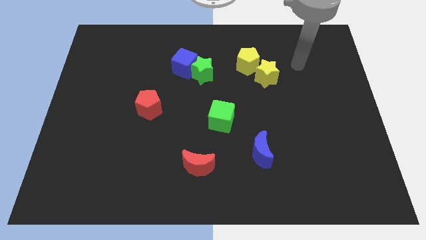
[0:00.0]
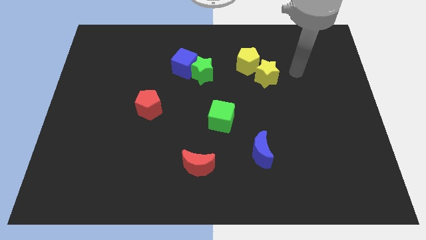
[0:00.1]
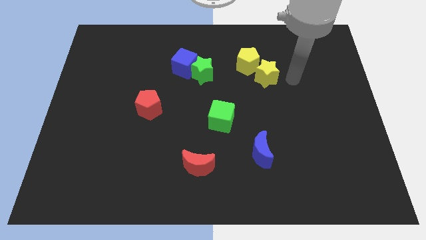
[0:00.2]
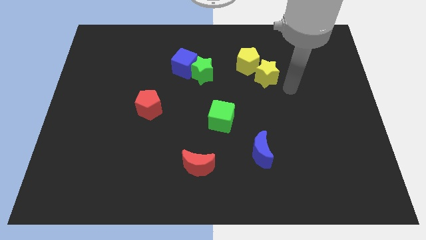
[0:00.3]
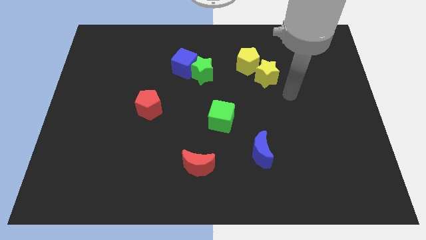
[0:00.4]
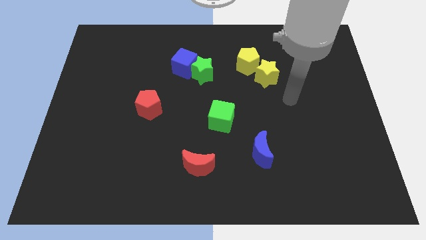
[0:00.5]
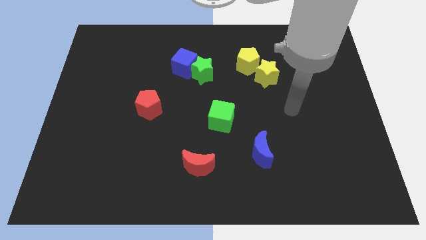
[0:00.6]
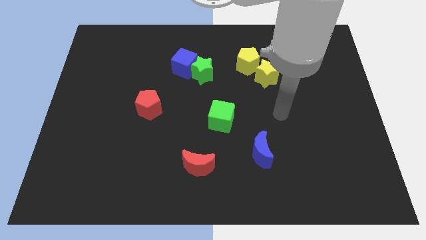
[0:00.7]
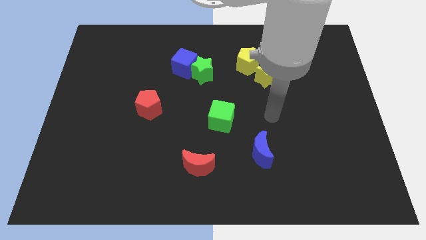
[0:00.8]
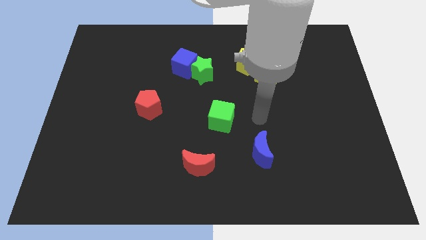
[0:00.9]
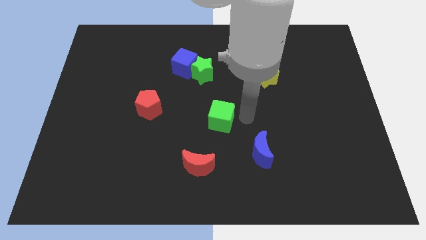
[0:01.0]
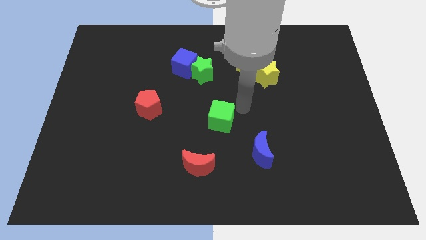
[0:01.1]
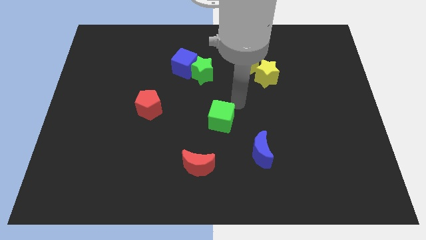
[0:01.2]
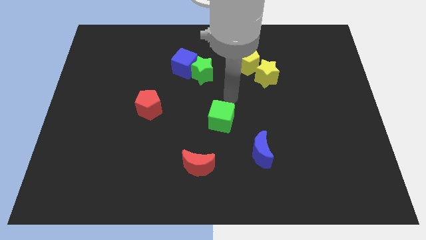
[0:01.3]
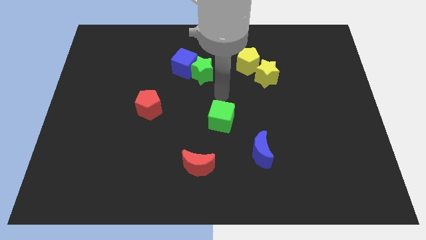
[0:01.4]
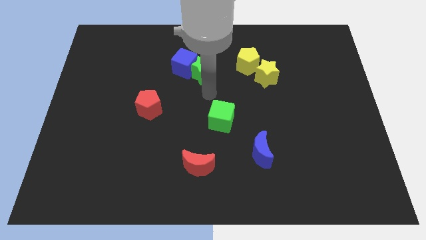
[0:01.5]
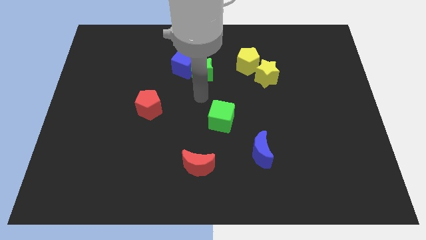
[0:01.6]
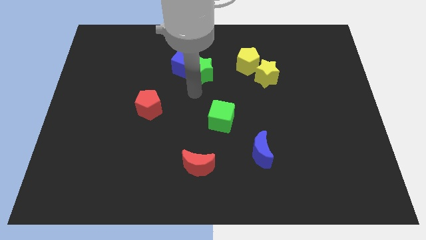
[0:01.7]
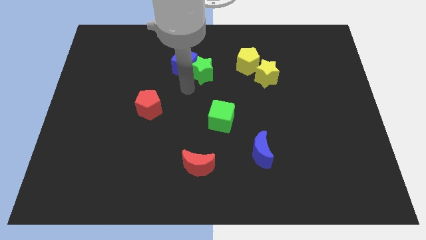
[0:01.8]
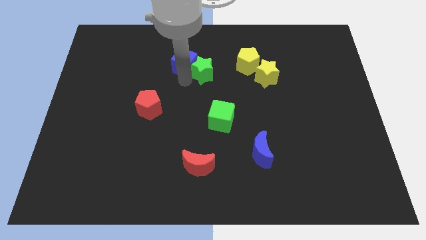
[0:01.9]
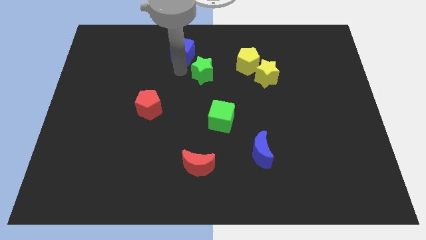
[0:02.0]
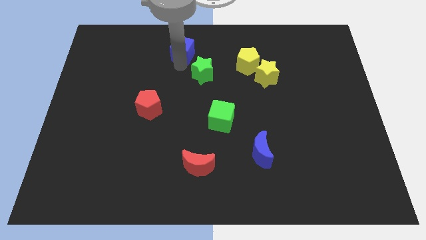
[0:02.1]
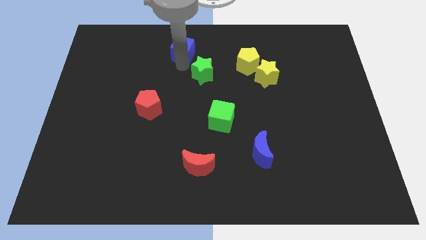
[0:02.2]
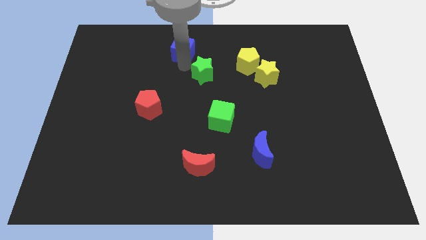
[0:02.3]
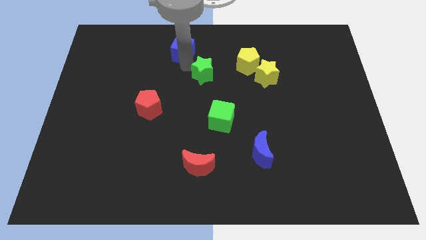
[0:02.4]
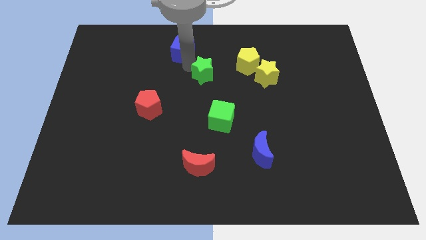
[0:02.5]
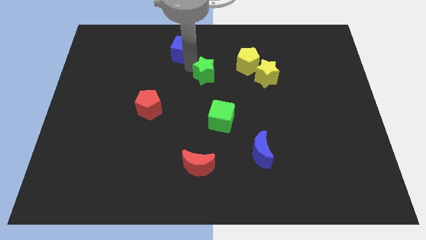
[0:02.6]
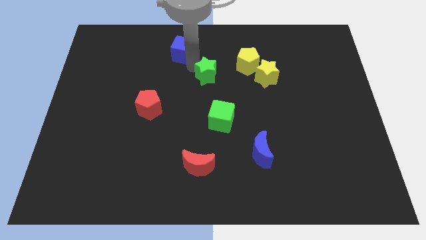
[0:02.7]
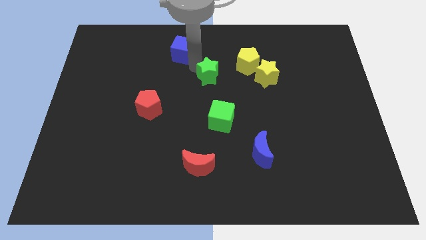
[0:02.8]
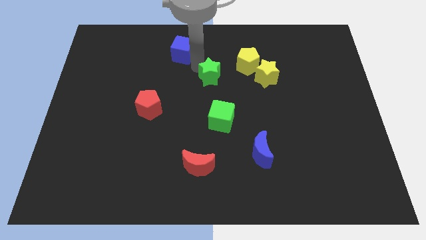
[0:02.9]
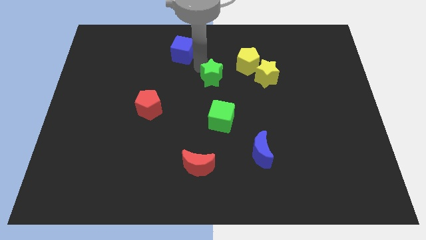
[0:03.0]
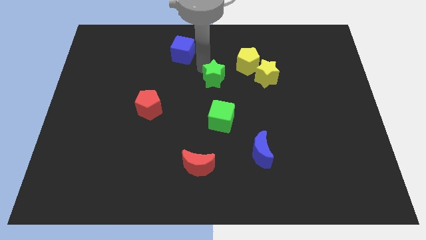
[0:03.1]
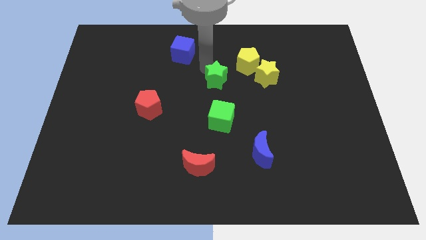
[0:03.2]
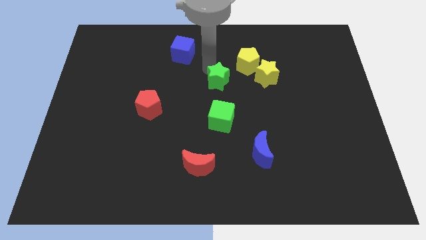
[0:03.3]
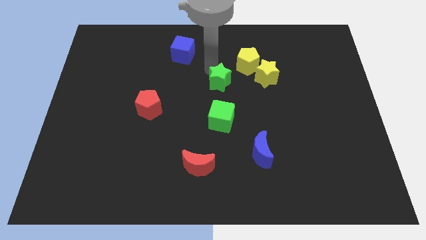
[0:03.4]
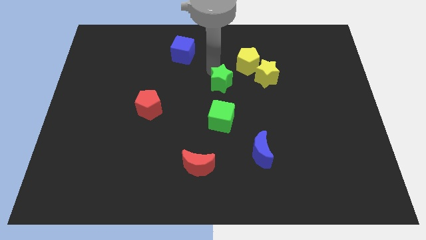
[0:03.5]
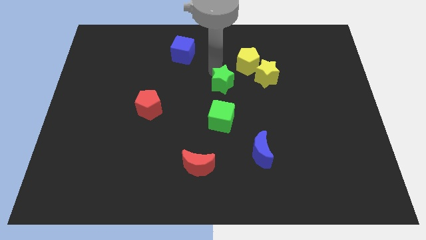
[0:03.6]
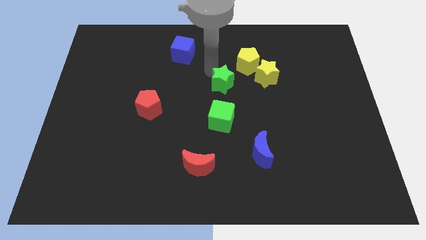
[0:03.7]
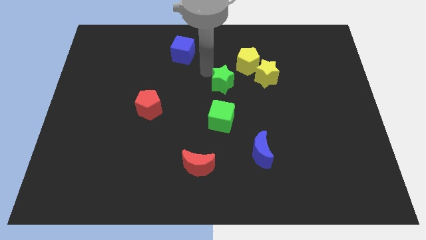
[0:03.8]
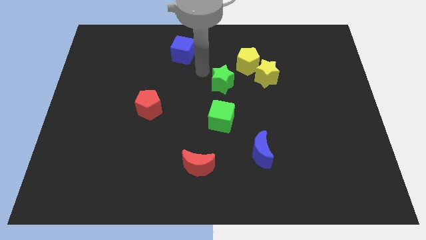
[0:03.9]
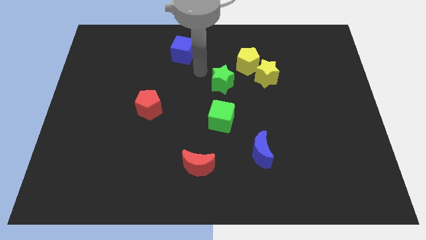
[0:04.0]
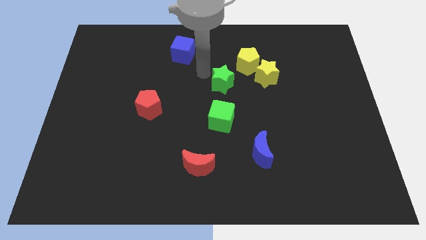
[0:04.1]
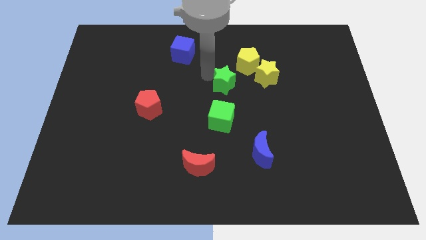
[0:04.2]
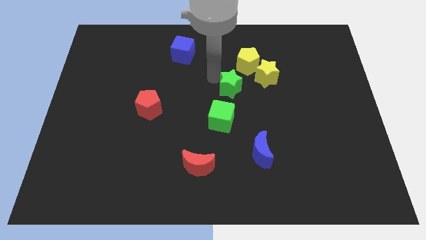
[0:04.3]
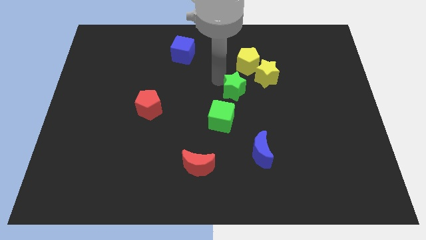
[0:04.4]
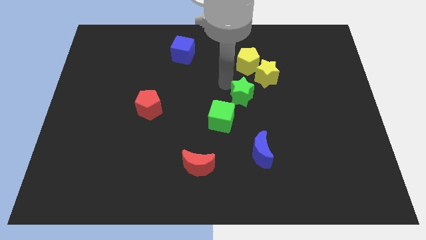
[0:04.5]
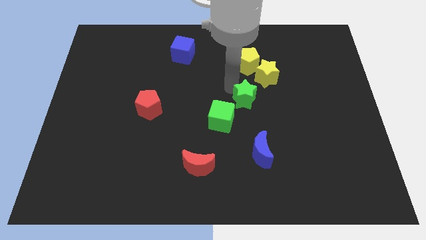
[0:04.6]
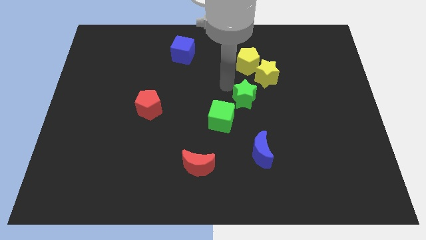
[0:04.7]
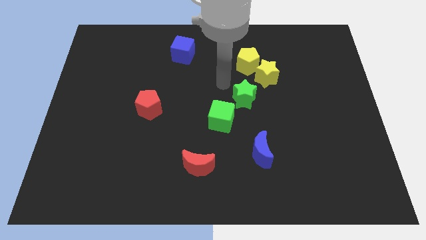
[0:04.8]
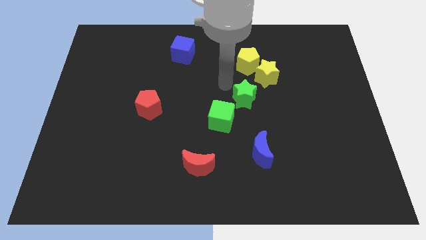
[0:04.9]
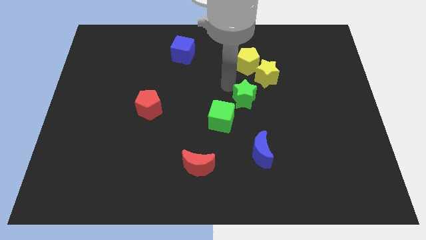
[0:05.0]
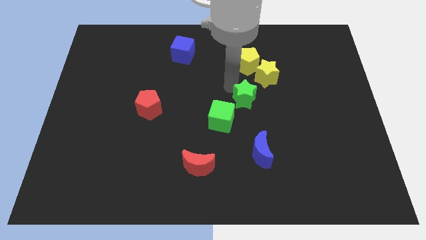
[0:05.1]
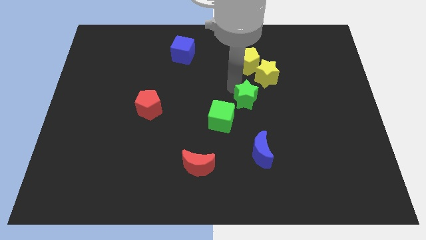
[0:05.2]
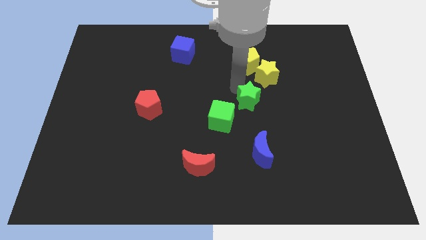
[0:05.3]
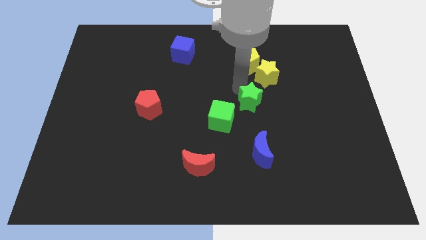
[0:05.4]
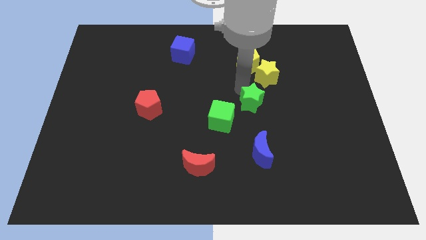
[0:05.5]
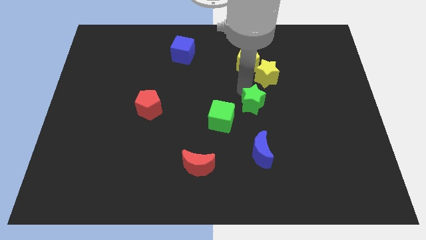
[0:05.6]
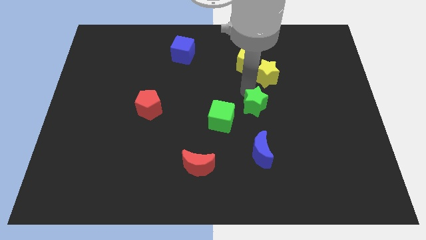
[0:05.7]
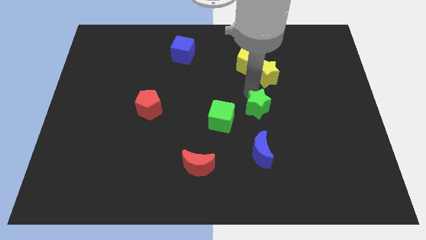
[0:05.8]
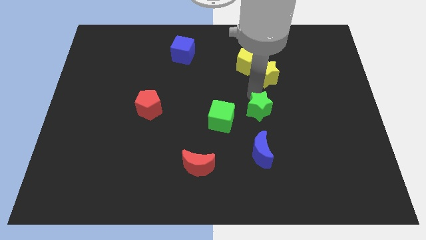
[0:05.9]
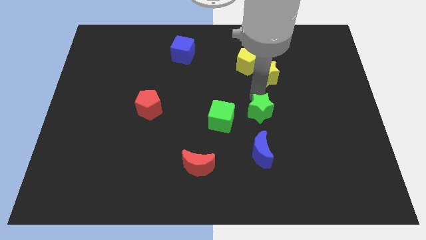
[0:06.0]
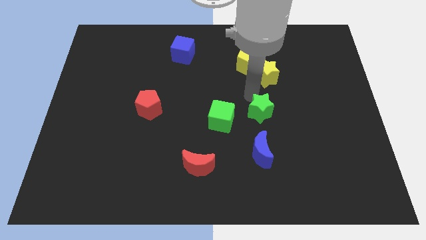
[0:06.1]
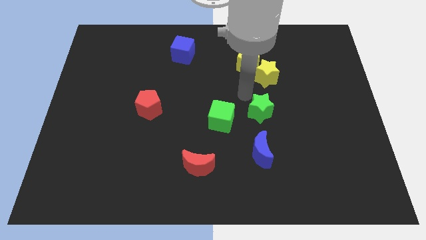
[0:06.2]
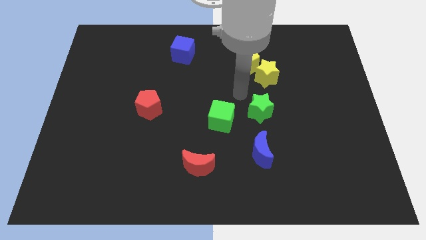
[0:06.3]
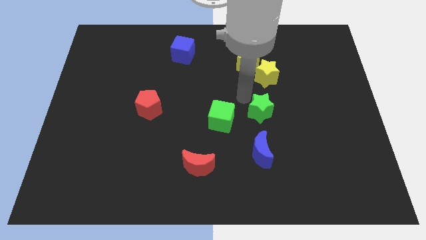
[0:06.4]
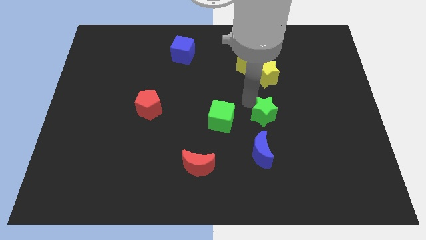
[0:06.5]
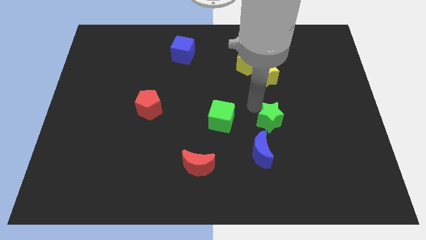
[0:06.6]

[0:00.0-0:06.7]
move the green star diagonally downwards and right

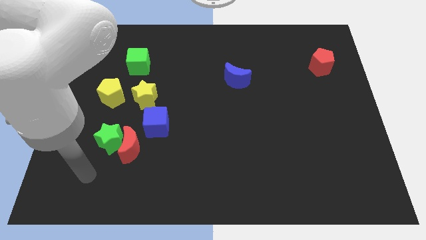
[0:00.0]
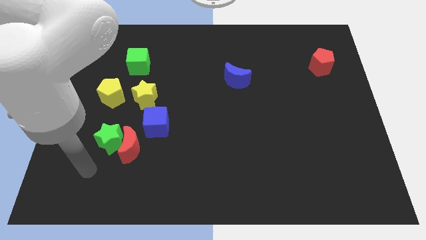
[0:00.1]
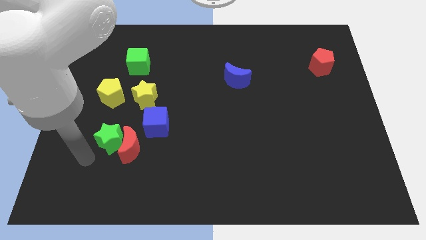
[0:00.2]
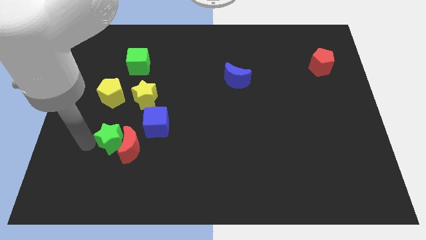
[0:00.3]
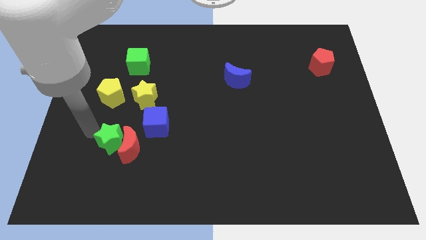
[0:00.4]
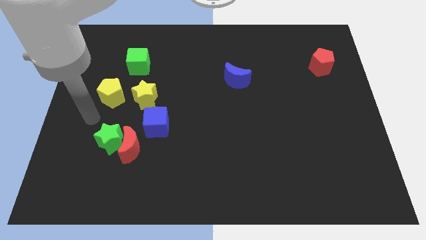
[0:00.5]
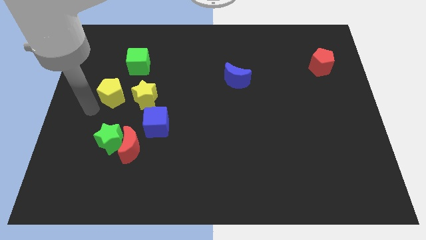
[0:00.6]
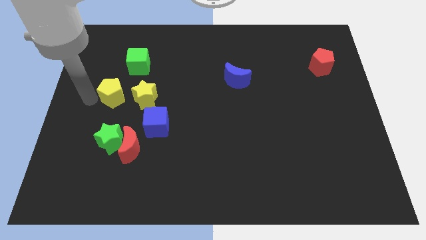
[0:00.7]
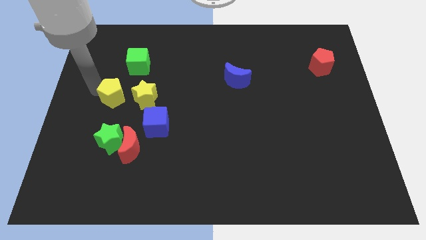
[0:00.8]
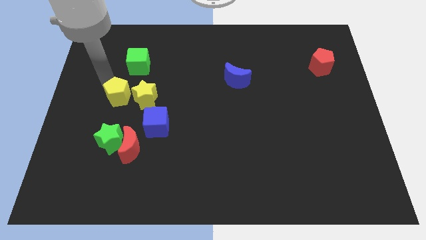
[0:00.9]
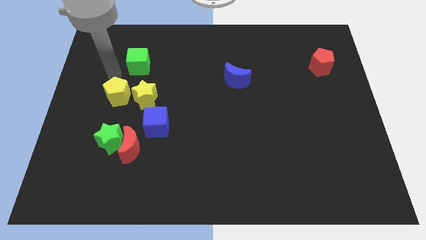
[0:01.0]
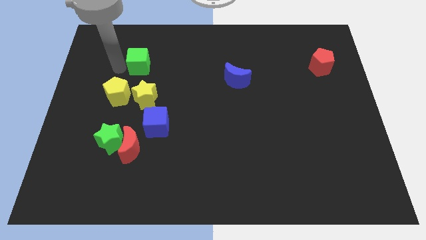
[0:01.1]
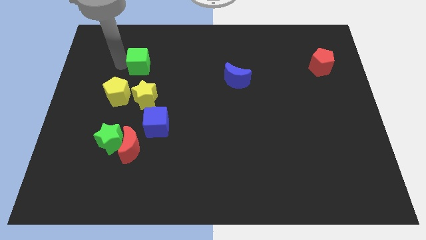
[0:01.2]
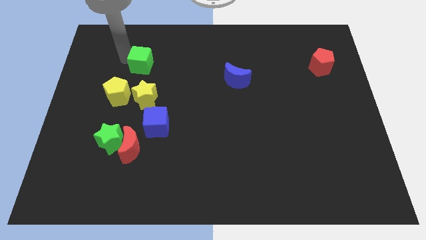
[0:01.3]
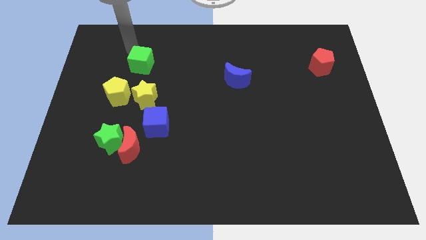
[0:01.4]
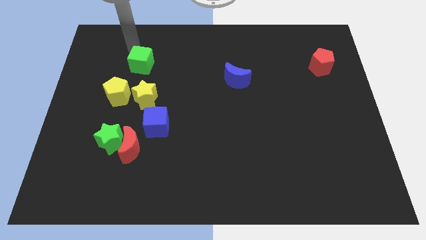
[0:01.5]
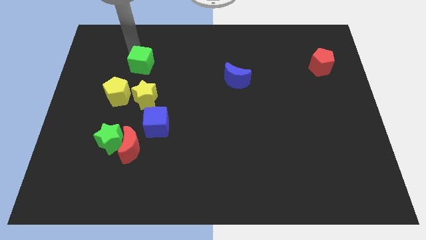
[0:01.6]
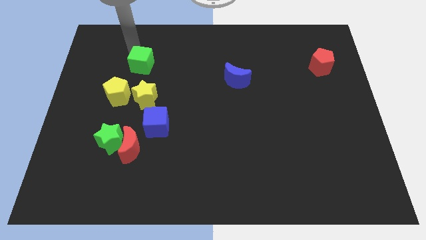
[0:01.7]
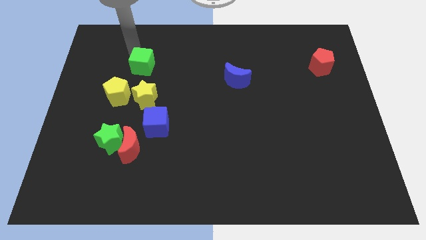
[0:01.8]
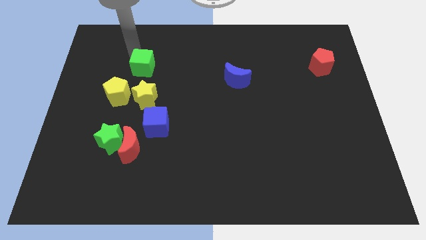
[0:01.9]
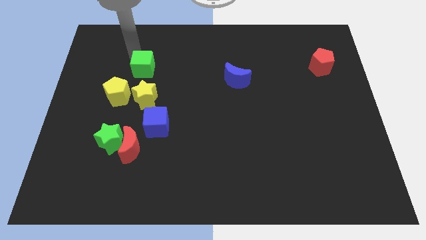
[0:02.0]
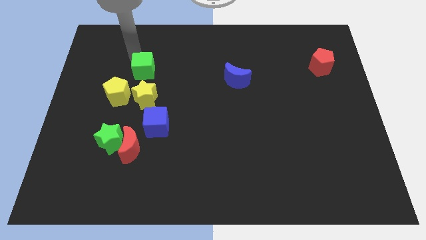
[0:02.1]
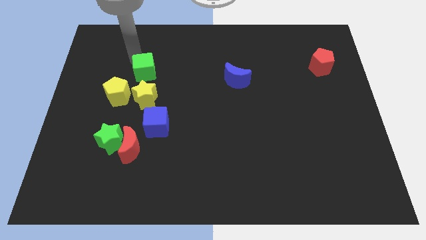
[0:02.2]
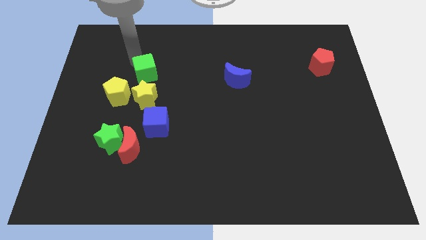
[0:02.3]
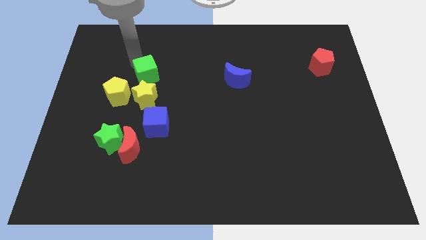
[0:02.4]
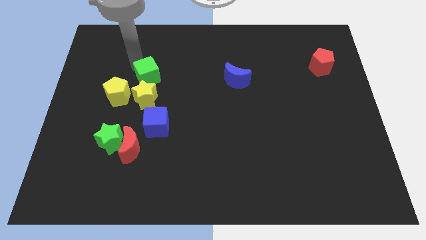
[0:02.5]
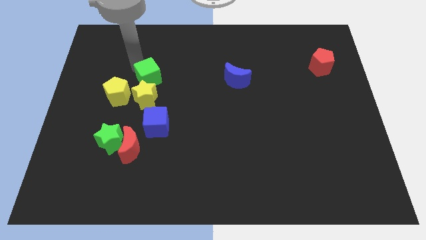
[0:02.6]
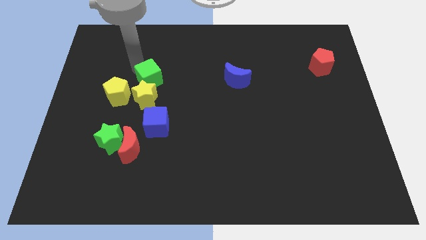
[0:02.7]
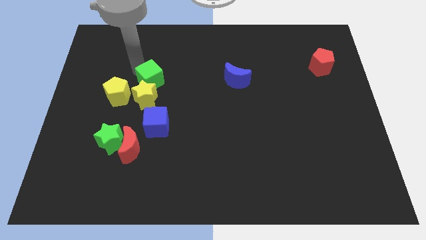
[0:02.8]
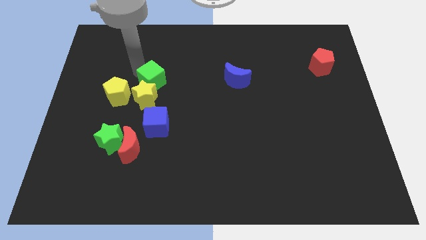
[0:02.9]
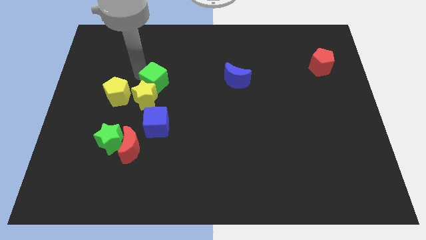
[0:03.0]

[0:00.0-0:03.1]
push the green cube downwards and right diagonally a little bit
